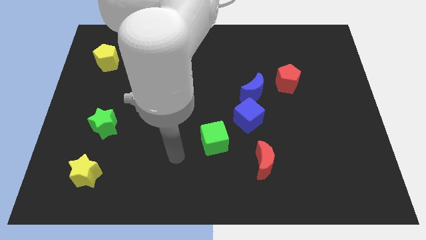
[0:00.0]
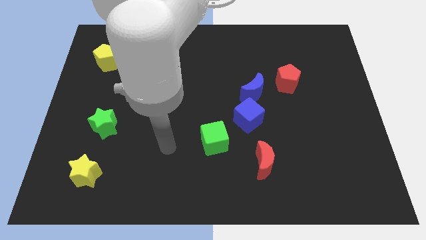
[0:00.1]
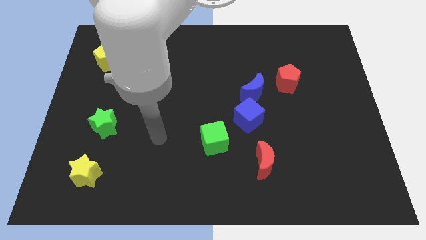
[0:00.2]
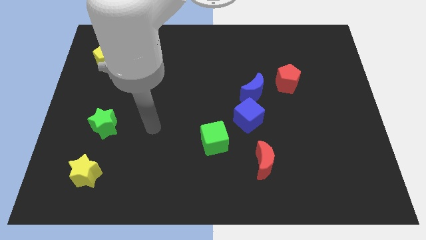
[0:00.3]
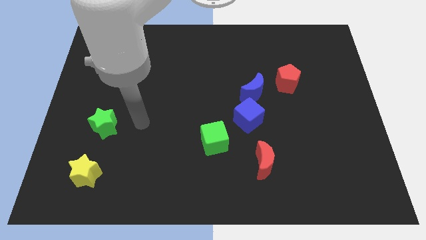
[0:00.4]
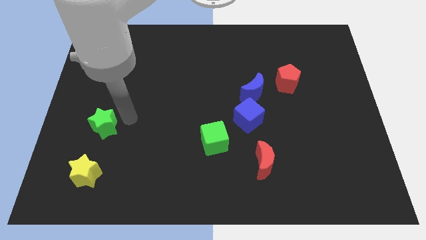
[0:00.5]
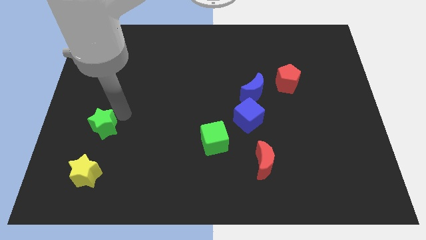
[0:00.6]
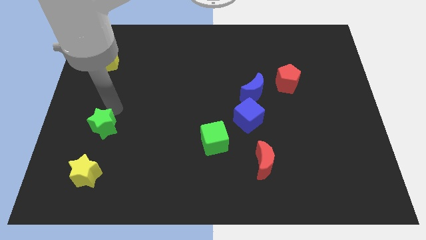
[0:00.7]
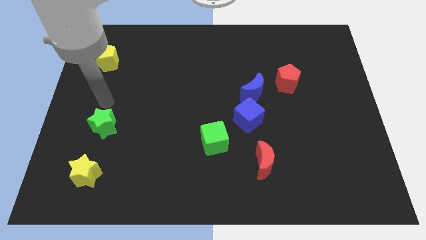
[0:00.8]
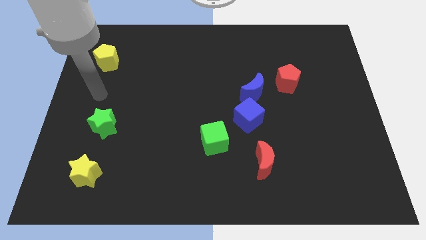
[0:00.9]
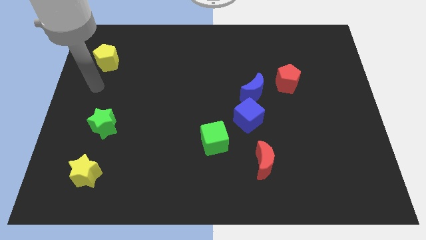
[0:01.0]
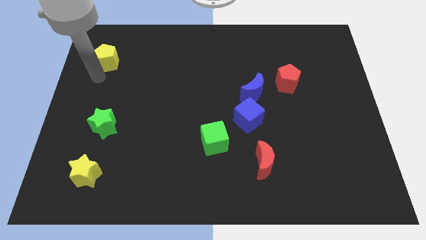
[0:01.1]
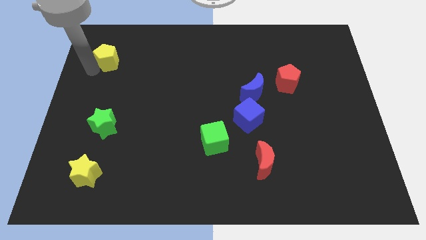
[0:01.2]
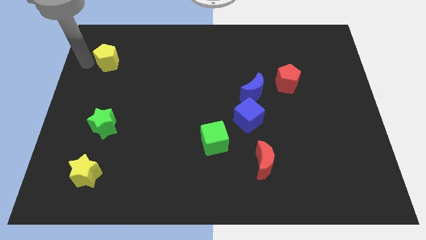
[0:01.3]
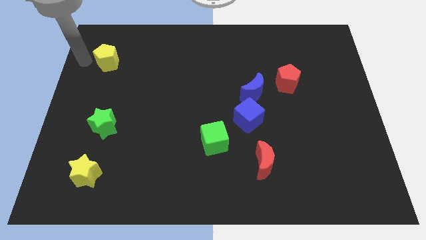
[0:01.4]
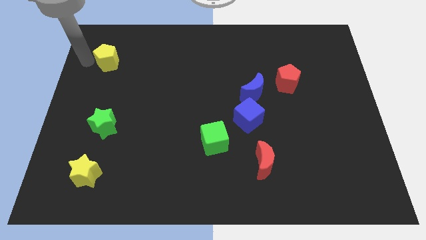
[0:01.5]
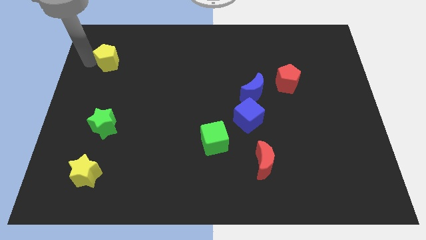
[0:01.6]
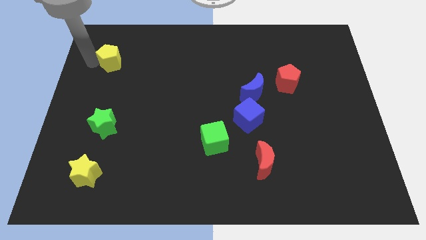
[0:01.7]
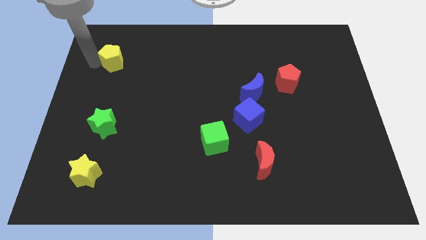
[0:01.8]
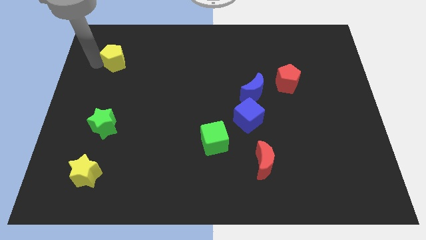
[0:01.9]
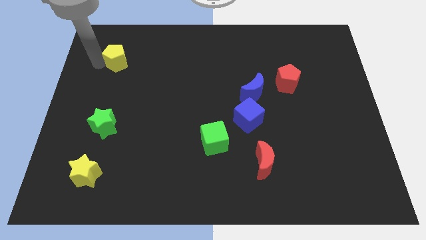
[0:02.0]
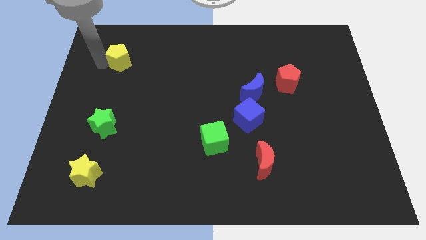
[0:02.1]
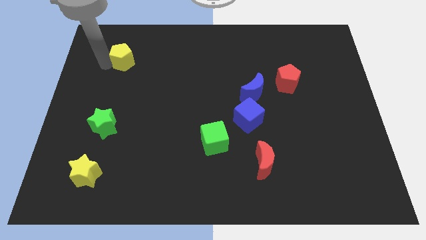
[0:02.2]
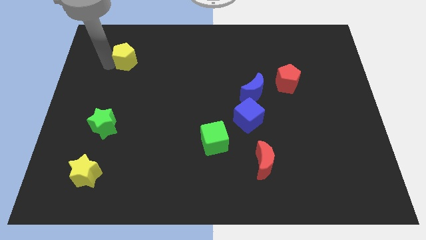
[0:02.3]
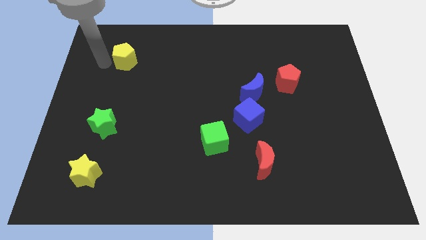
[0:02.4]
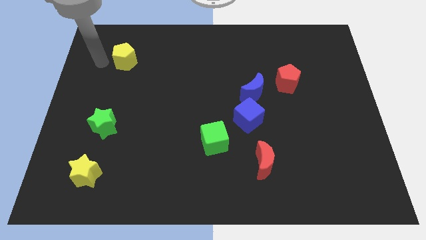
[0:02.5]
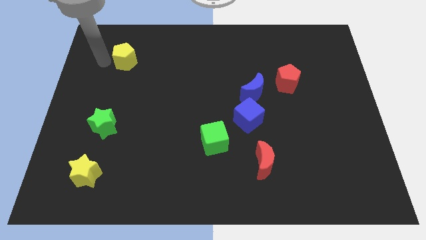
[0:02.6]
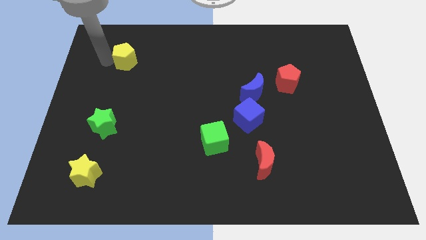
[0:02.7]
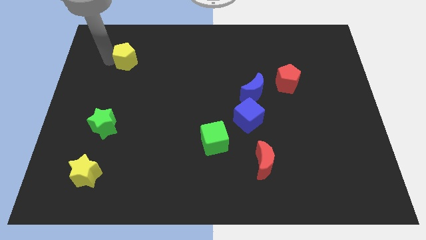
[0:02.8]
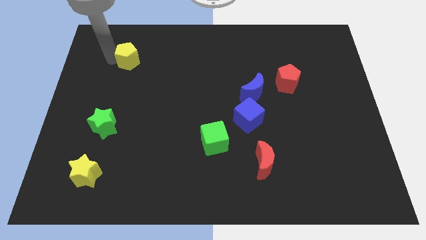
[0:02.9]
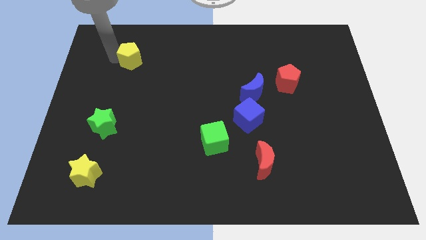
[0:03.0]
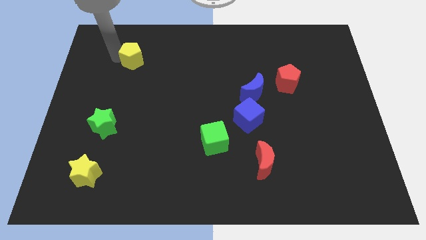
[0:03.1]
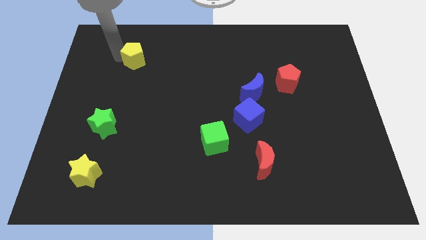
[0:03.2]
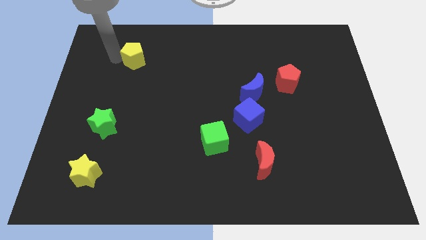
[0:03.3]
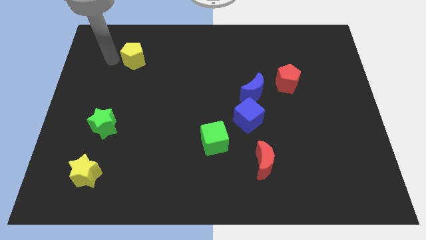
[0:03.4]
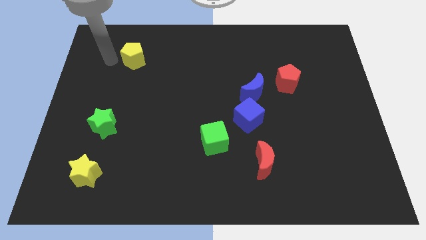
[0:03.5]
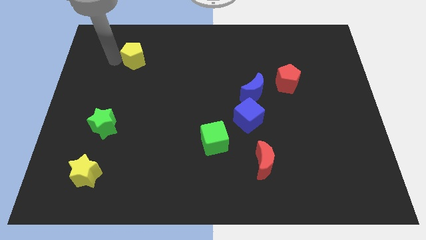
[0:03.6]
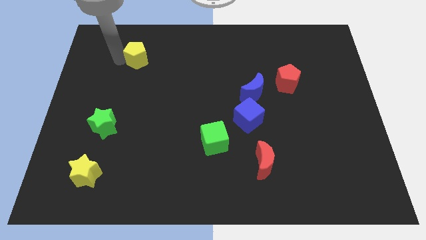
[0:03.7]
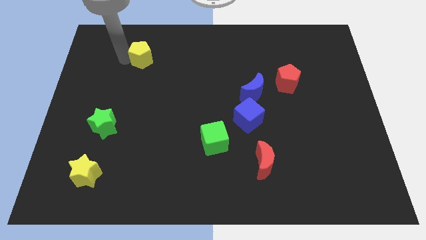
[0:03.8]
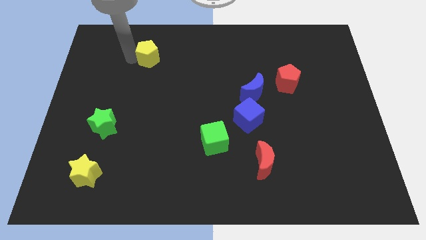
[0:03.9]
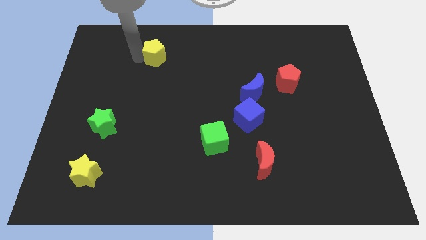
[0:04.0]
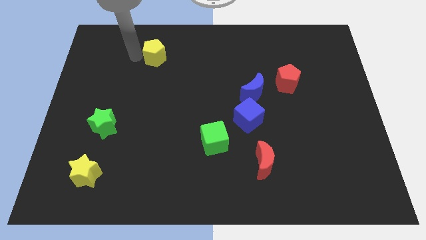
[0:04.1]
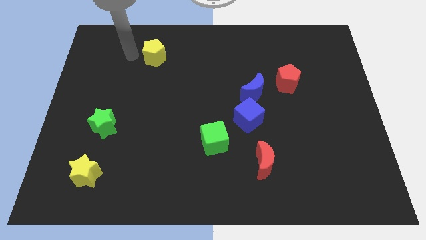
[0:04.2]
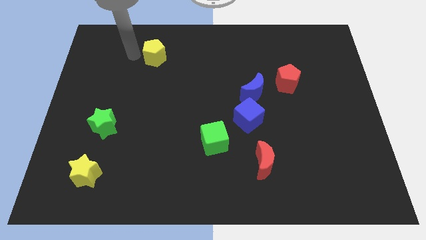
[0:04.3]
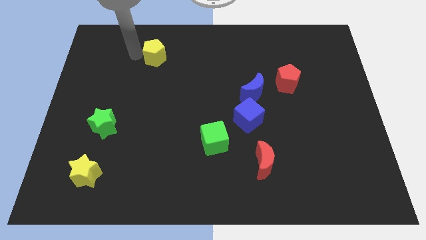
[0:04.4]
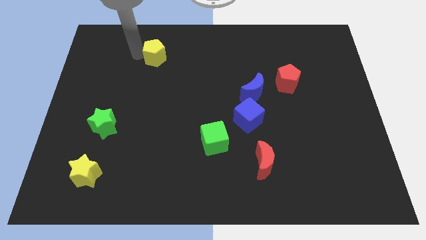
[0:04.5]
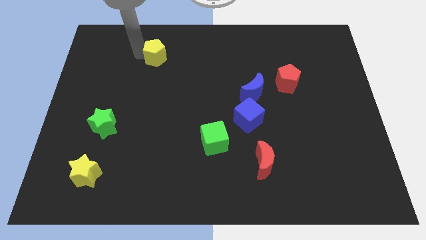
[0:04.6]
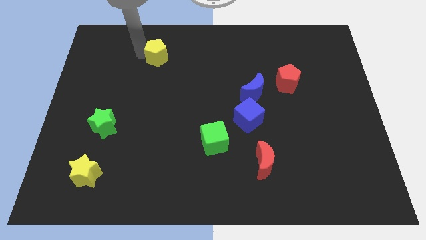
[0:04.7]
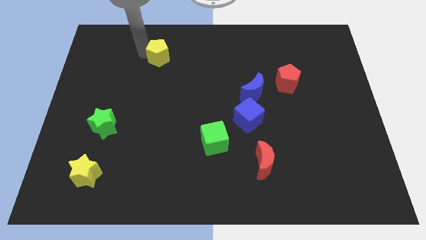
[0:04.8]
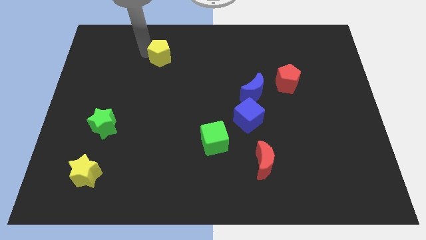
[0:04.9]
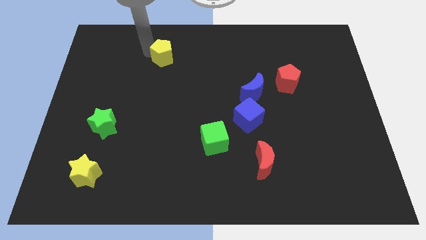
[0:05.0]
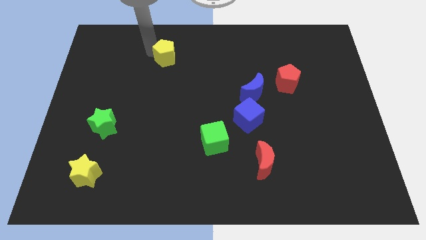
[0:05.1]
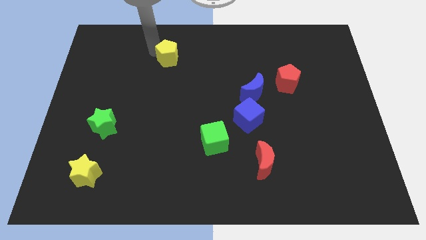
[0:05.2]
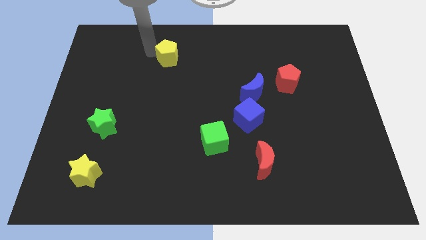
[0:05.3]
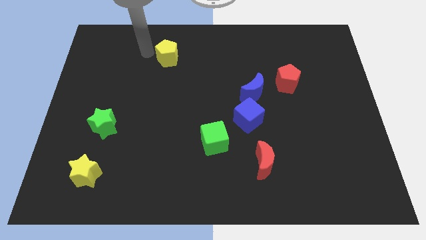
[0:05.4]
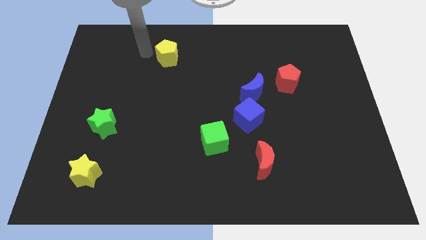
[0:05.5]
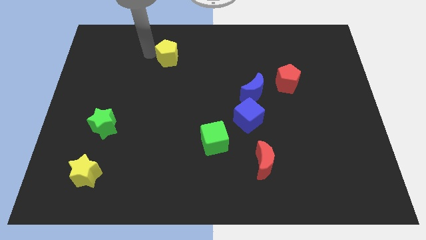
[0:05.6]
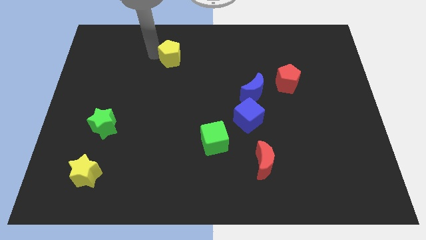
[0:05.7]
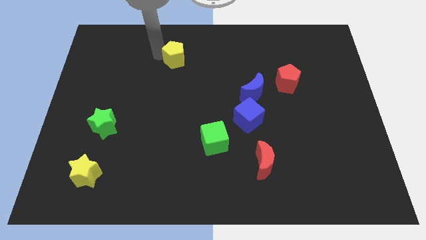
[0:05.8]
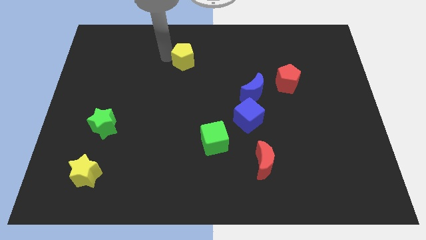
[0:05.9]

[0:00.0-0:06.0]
slide the yellow pentagon right

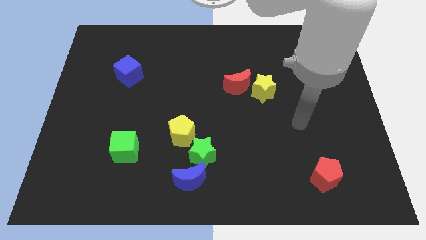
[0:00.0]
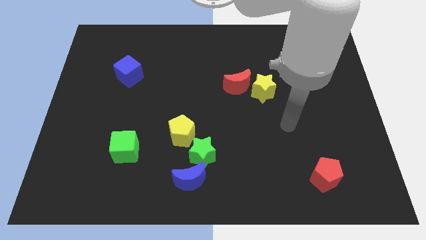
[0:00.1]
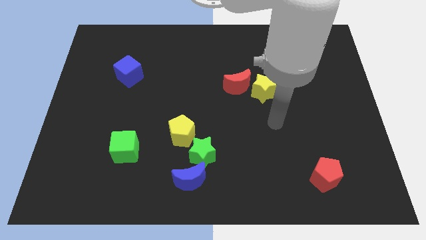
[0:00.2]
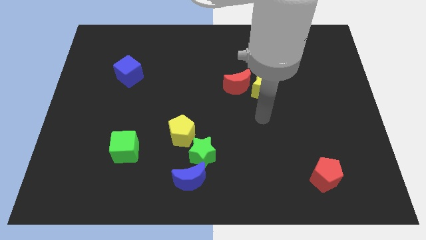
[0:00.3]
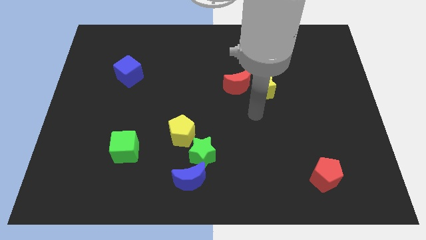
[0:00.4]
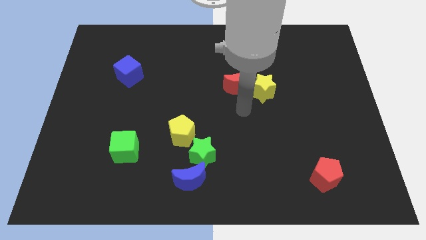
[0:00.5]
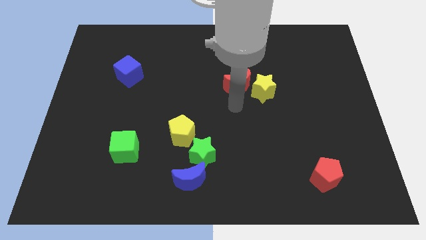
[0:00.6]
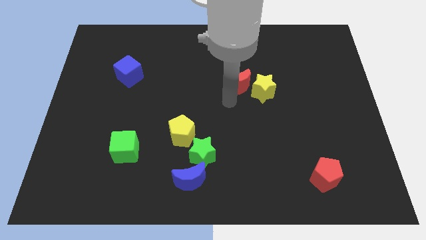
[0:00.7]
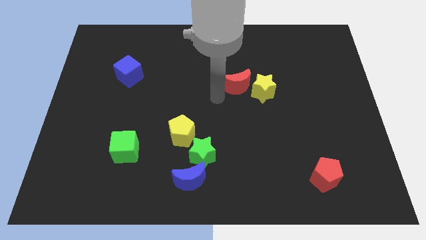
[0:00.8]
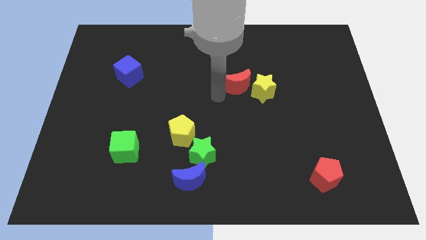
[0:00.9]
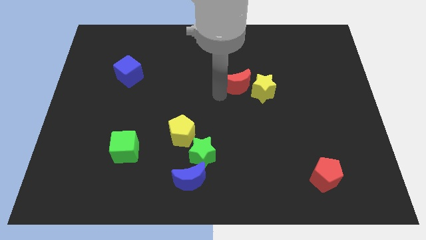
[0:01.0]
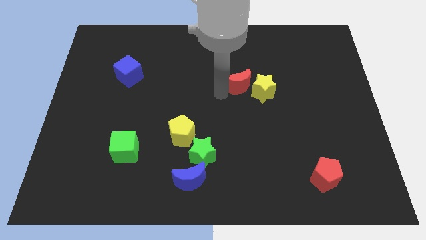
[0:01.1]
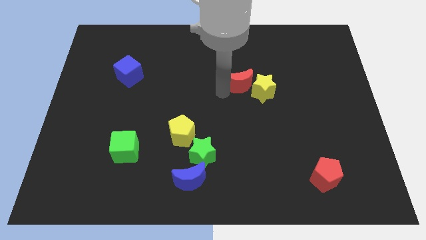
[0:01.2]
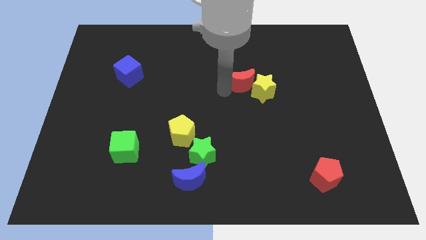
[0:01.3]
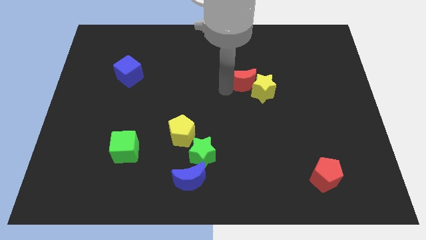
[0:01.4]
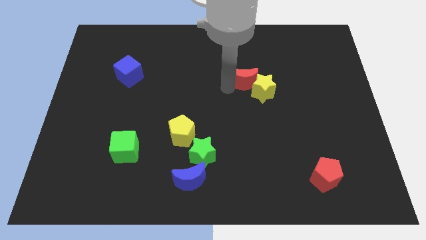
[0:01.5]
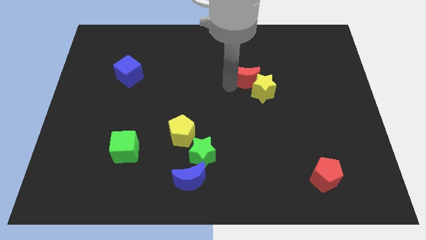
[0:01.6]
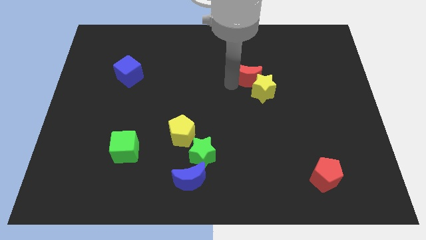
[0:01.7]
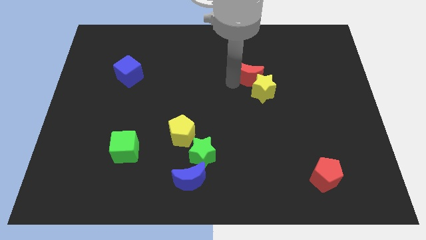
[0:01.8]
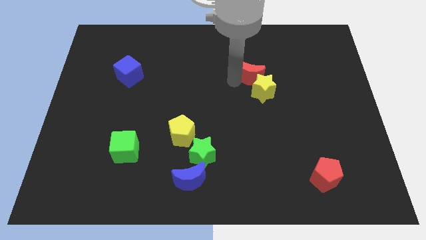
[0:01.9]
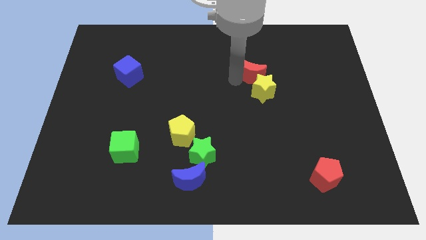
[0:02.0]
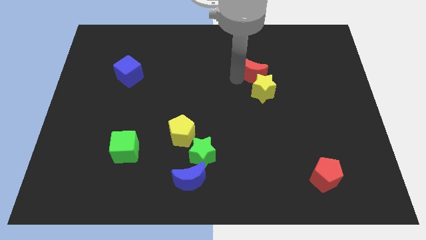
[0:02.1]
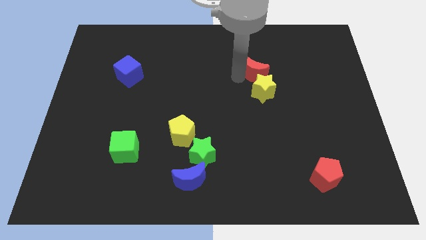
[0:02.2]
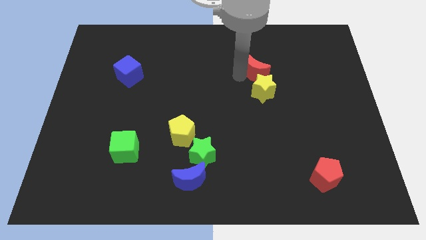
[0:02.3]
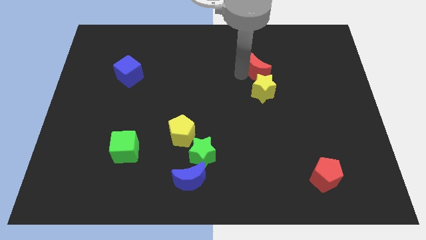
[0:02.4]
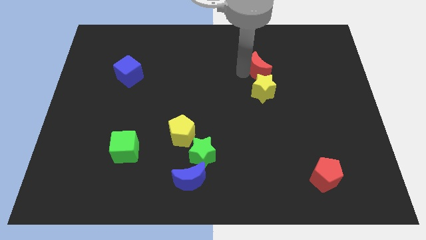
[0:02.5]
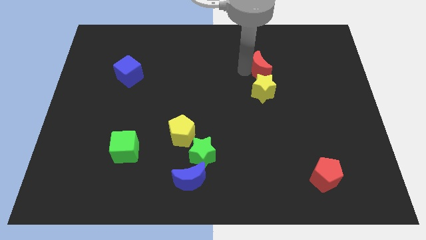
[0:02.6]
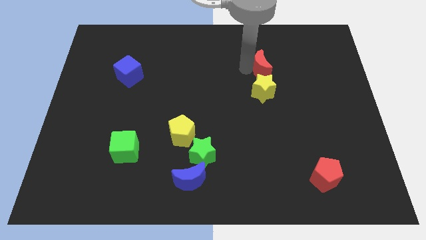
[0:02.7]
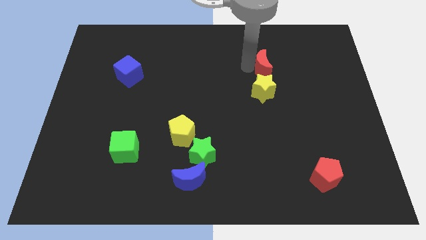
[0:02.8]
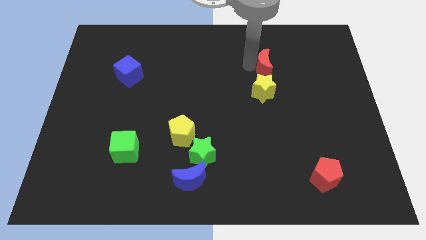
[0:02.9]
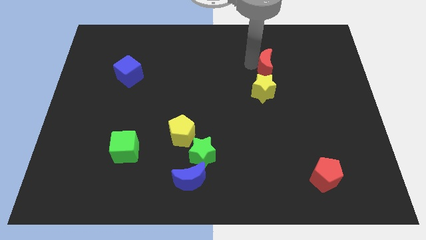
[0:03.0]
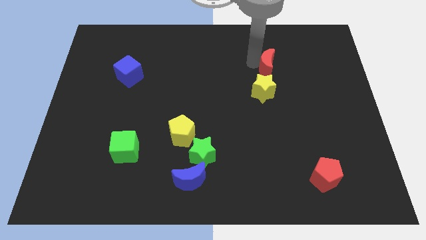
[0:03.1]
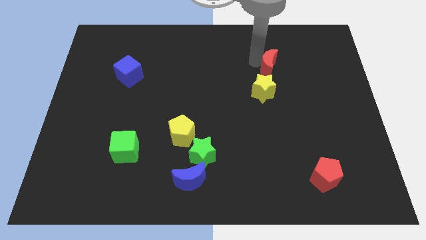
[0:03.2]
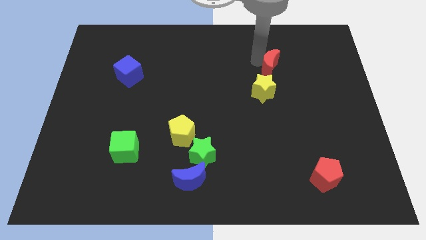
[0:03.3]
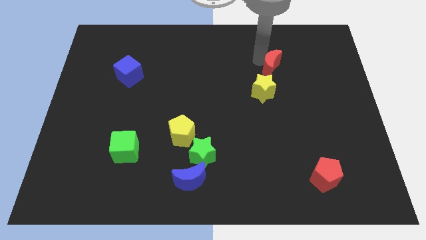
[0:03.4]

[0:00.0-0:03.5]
slightly move the red moon to the right
